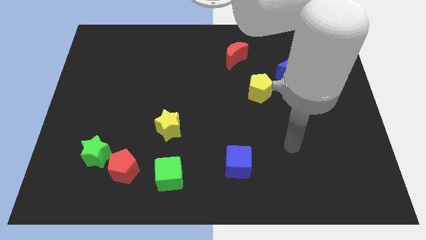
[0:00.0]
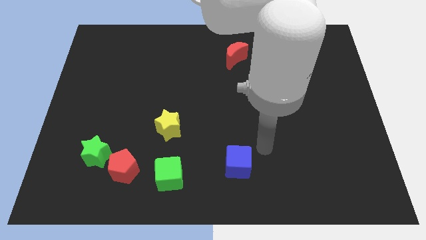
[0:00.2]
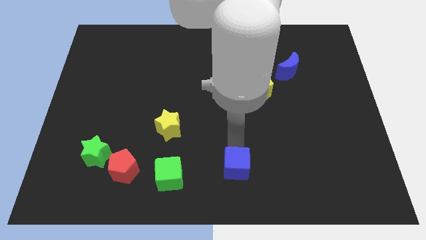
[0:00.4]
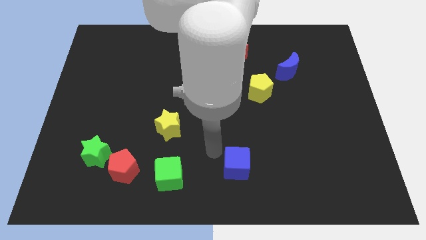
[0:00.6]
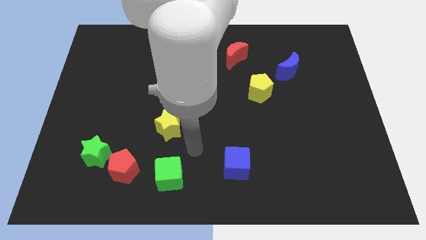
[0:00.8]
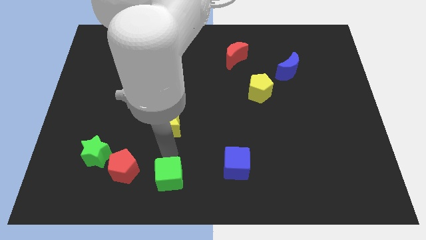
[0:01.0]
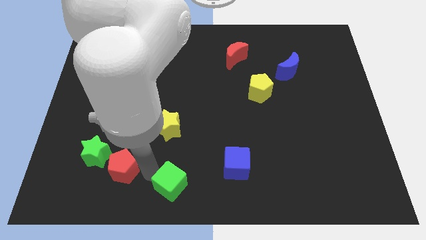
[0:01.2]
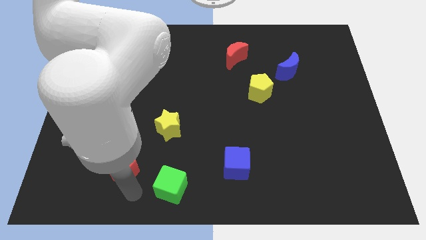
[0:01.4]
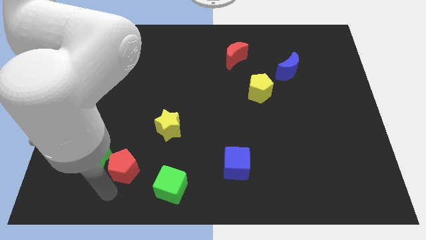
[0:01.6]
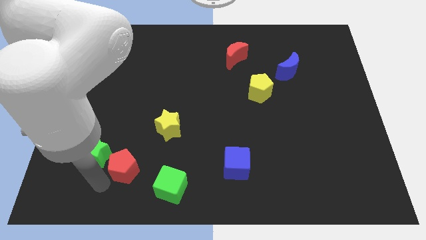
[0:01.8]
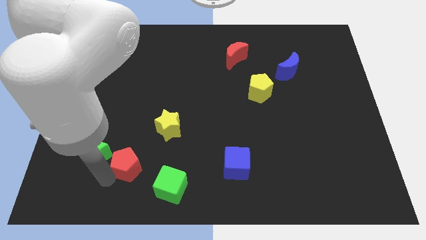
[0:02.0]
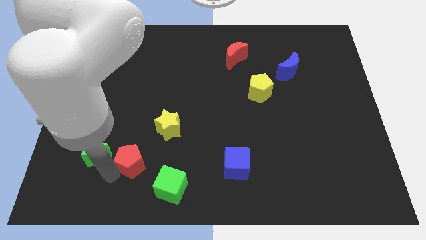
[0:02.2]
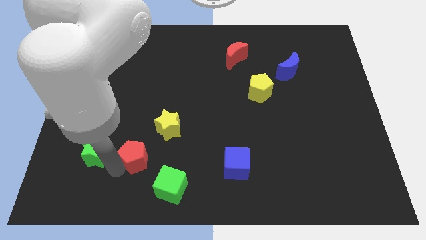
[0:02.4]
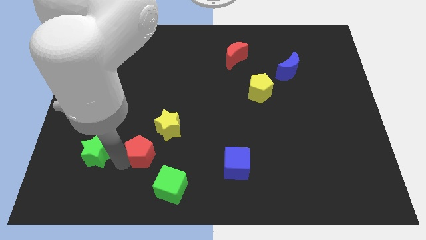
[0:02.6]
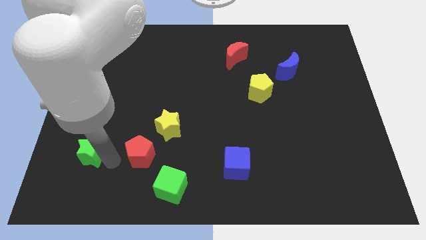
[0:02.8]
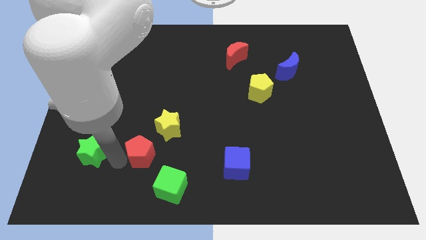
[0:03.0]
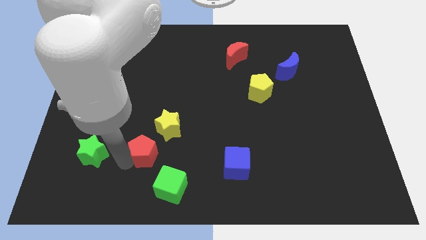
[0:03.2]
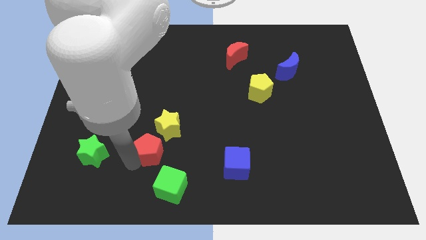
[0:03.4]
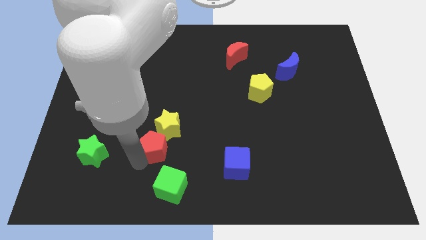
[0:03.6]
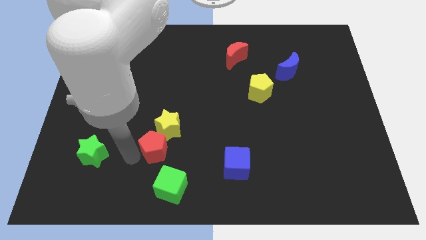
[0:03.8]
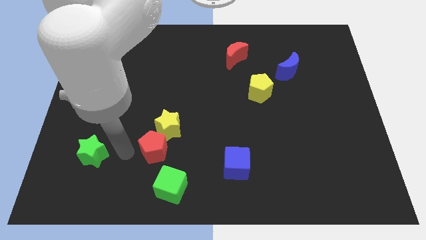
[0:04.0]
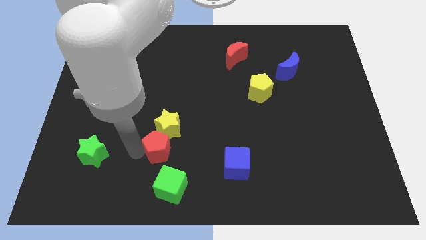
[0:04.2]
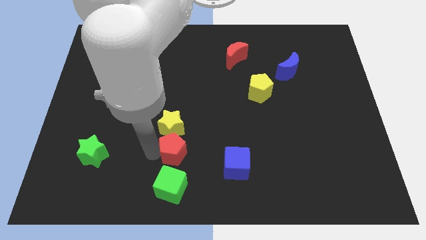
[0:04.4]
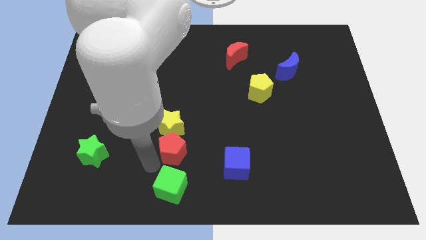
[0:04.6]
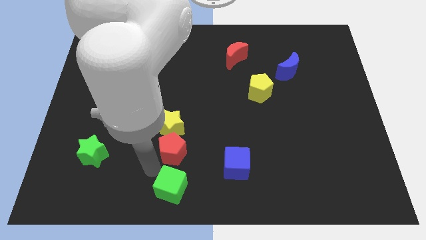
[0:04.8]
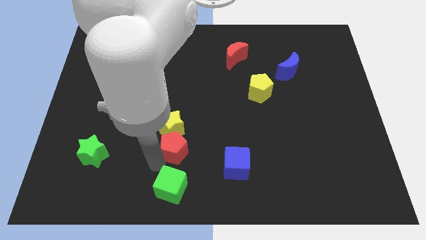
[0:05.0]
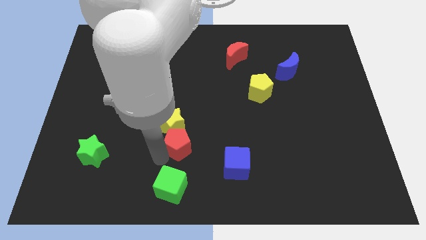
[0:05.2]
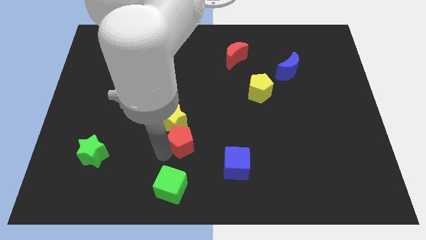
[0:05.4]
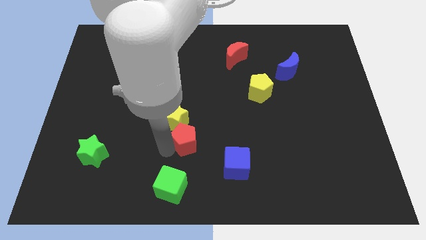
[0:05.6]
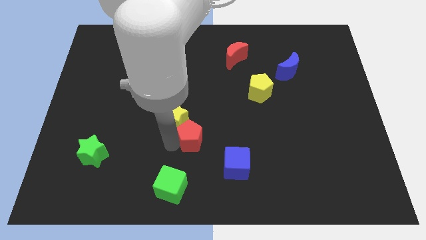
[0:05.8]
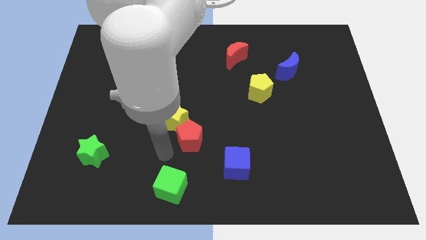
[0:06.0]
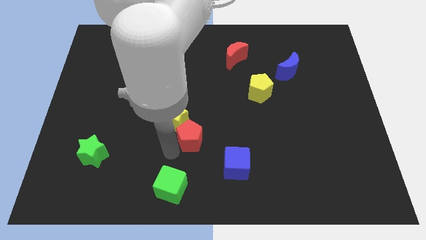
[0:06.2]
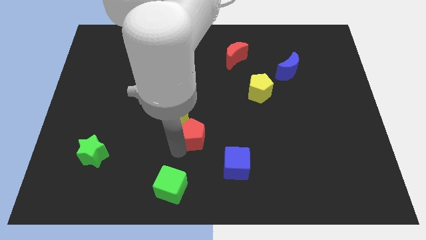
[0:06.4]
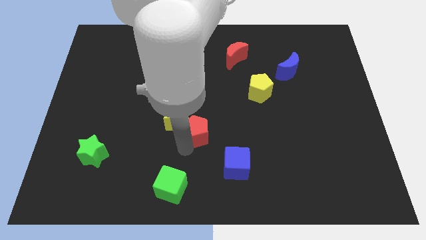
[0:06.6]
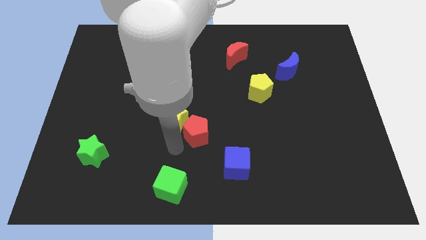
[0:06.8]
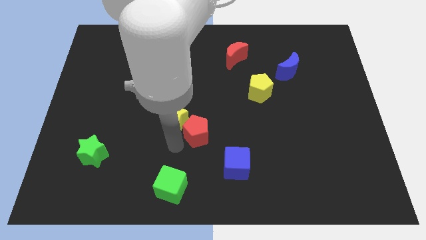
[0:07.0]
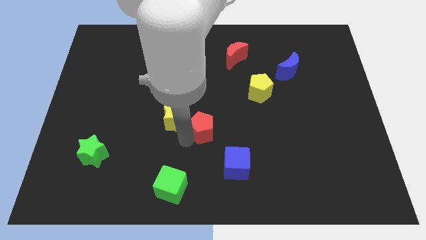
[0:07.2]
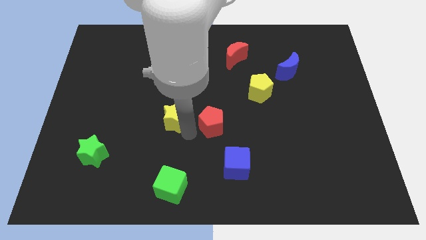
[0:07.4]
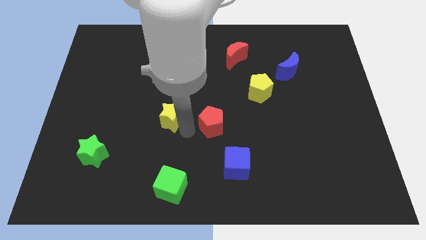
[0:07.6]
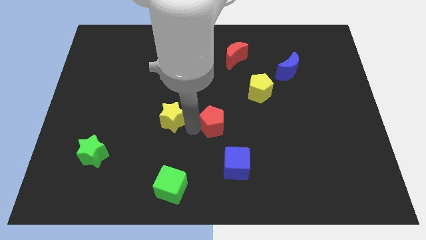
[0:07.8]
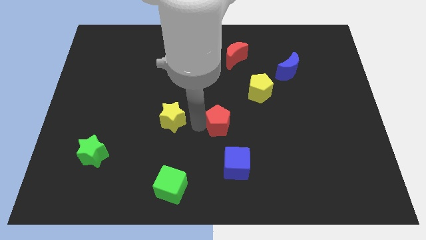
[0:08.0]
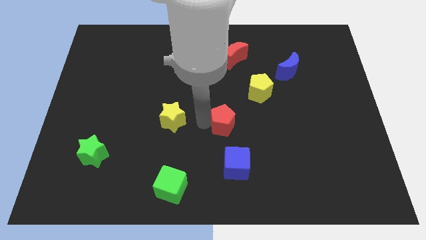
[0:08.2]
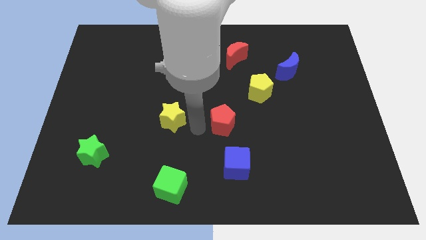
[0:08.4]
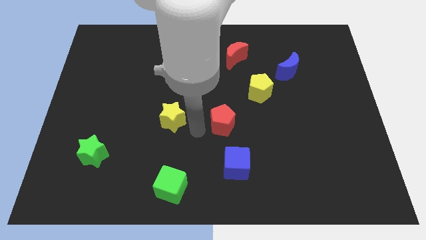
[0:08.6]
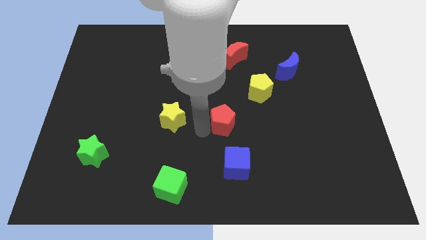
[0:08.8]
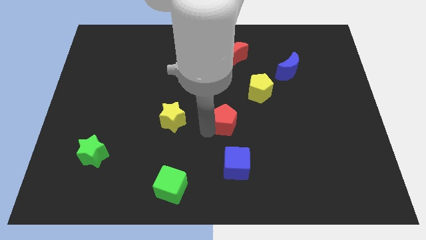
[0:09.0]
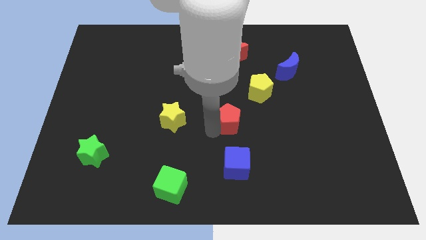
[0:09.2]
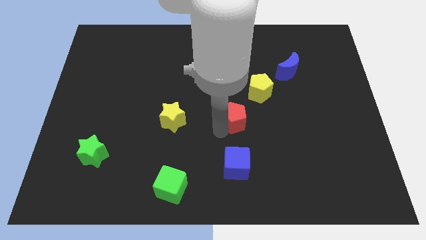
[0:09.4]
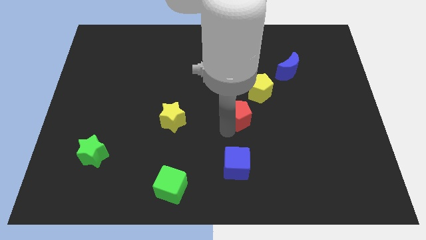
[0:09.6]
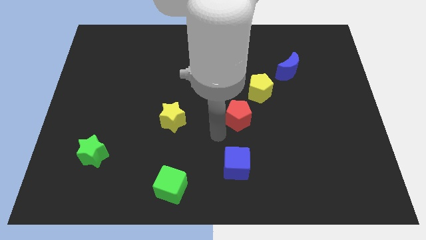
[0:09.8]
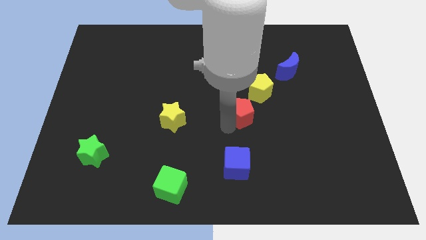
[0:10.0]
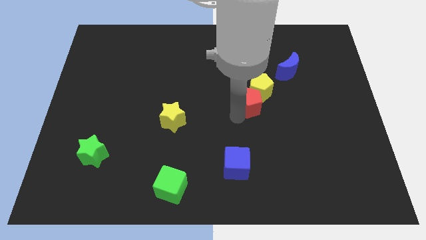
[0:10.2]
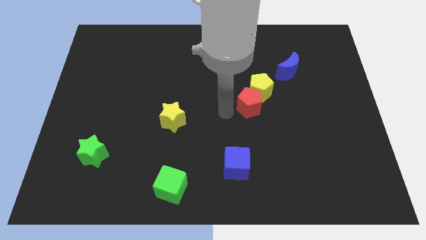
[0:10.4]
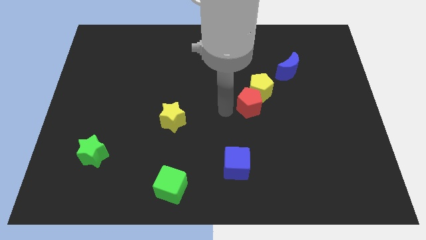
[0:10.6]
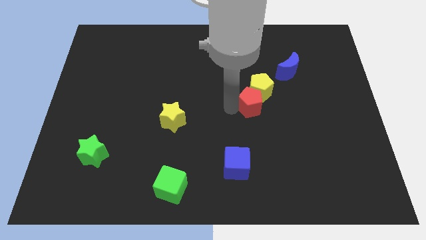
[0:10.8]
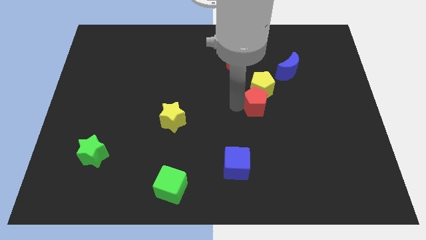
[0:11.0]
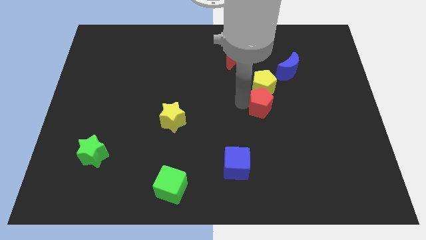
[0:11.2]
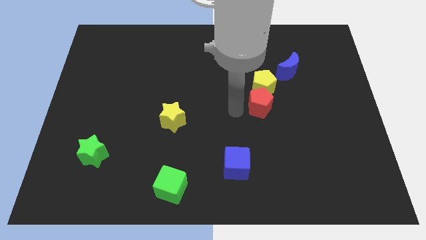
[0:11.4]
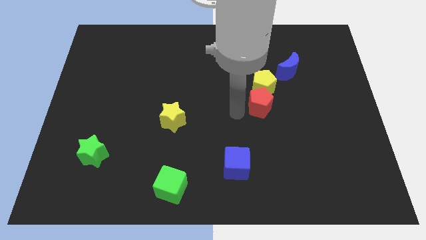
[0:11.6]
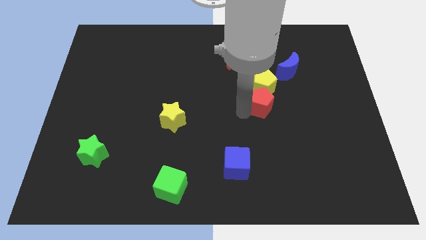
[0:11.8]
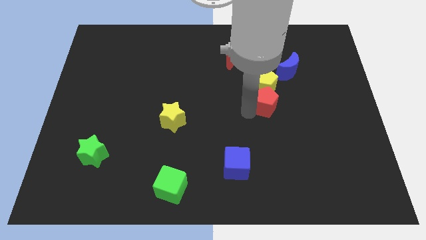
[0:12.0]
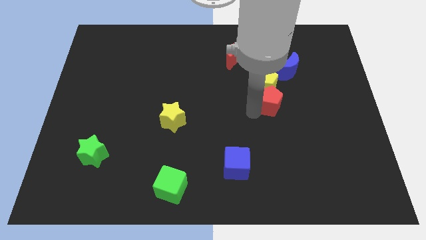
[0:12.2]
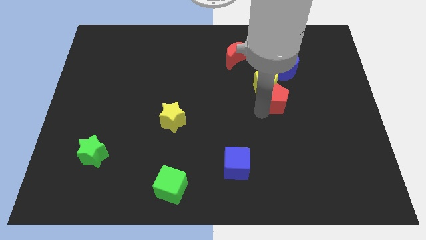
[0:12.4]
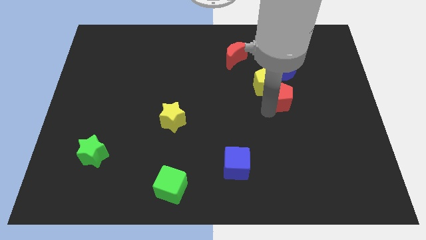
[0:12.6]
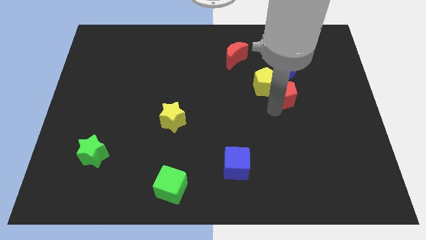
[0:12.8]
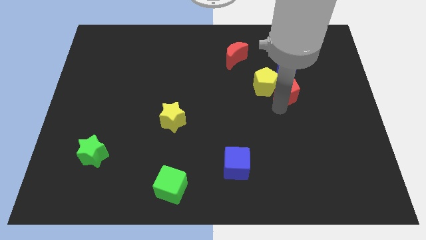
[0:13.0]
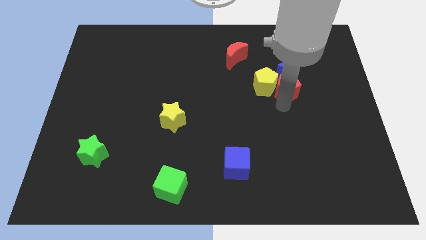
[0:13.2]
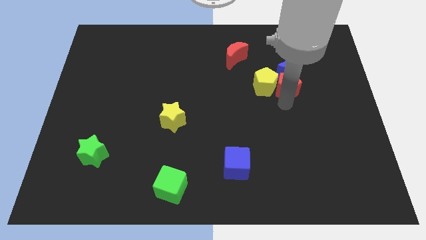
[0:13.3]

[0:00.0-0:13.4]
push the red pentagon towards the blue moon
